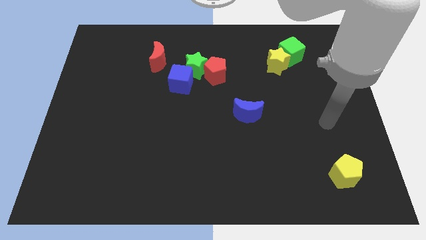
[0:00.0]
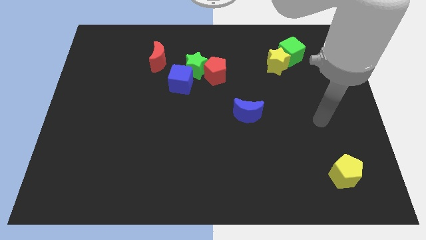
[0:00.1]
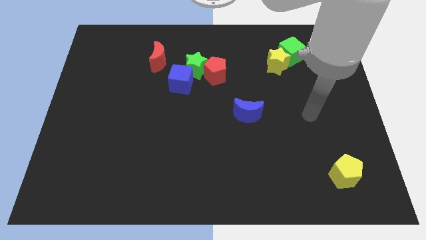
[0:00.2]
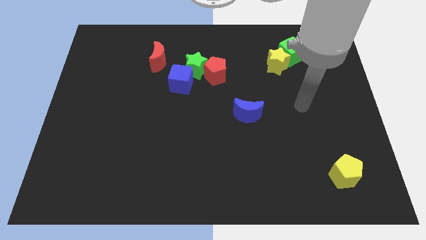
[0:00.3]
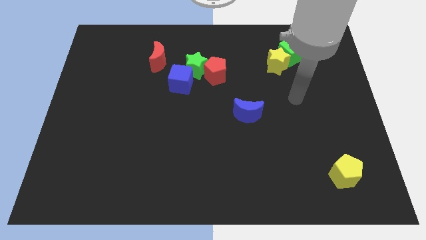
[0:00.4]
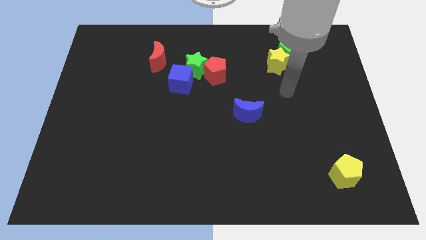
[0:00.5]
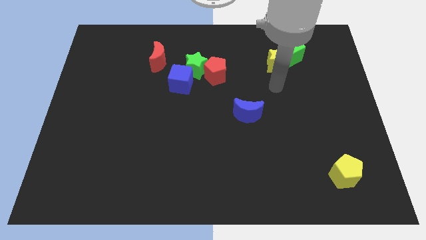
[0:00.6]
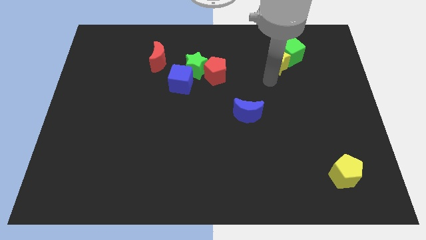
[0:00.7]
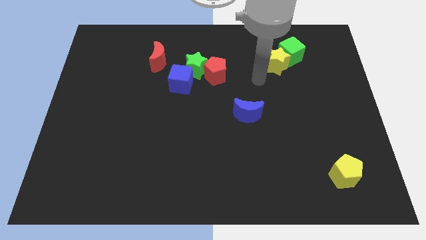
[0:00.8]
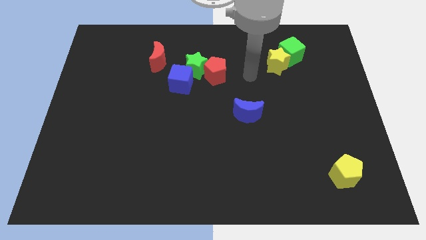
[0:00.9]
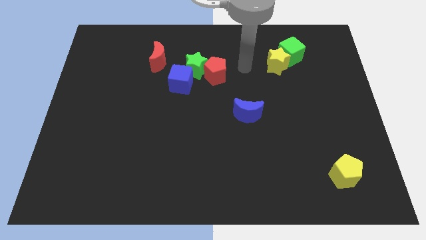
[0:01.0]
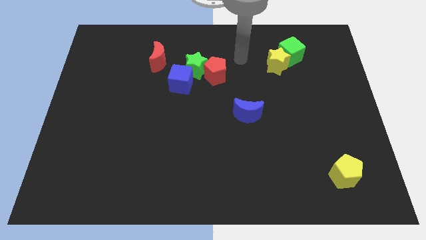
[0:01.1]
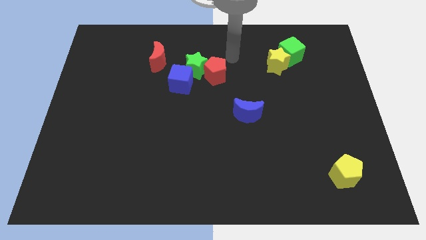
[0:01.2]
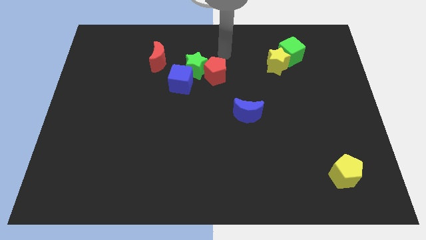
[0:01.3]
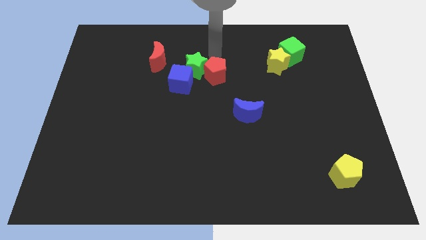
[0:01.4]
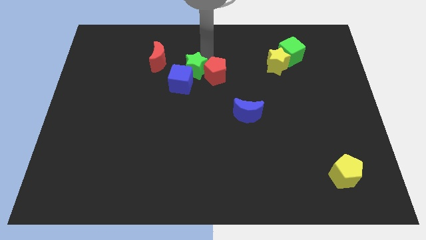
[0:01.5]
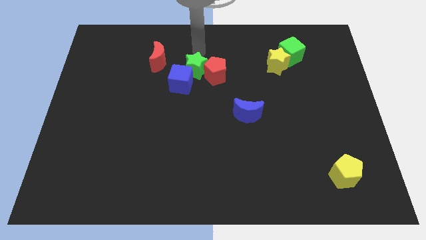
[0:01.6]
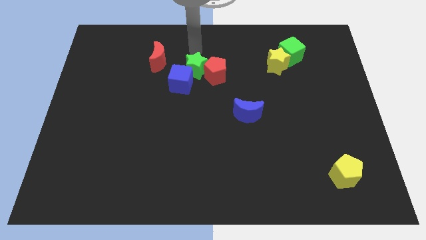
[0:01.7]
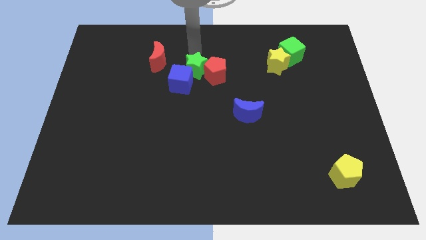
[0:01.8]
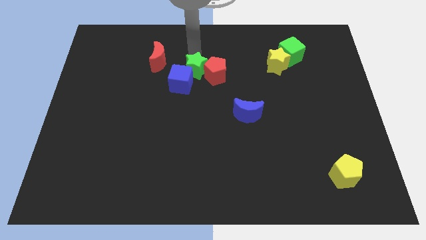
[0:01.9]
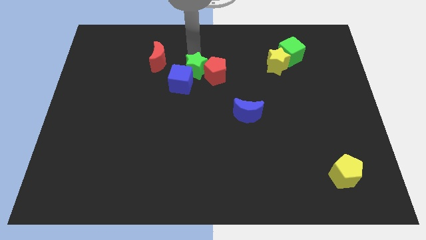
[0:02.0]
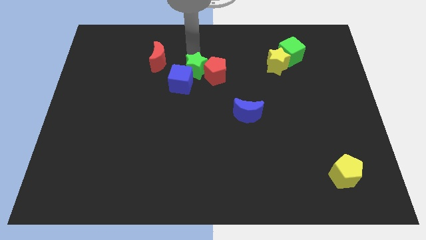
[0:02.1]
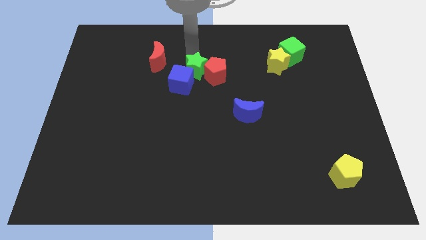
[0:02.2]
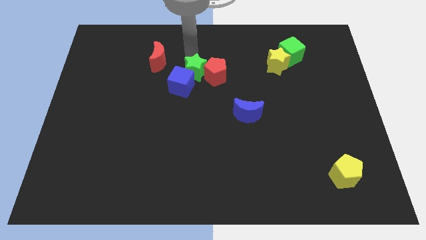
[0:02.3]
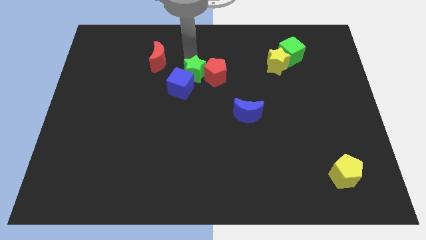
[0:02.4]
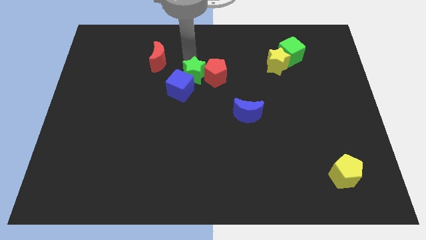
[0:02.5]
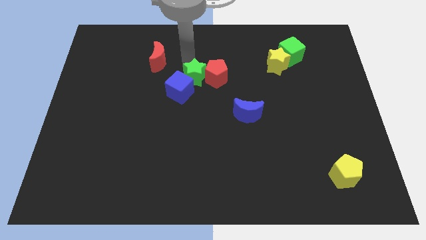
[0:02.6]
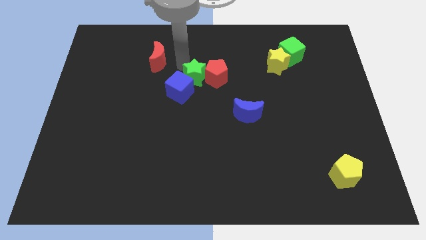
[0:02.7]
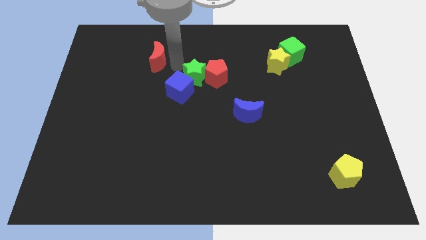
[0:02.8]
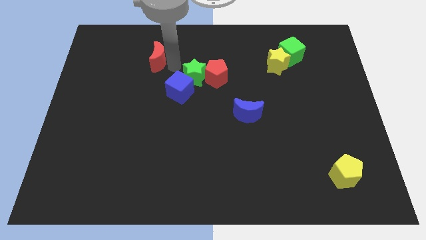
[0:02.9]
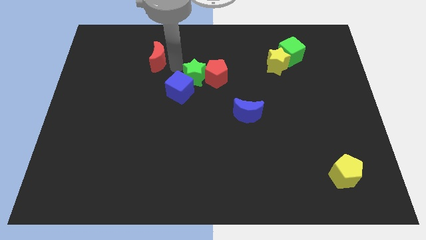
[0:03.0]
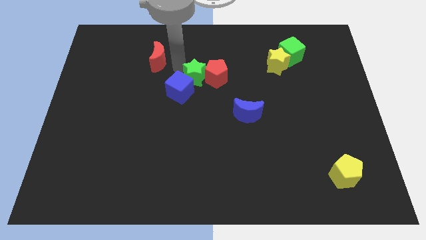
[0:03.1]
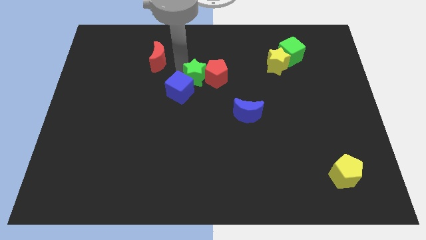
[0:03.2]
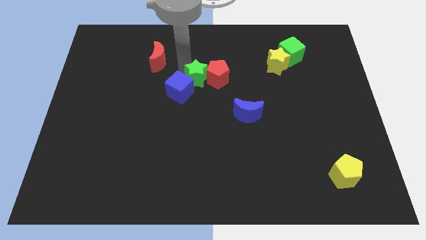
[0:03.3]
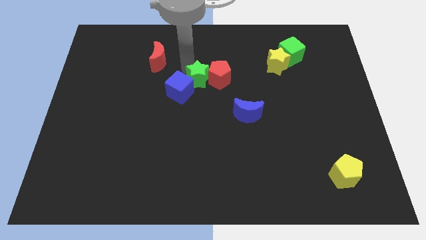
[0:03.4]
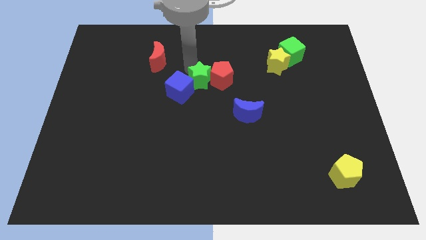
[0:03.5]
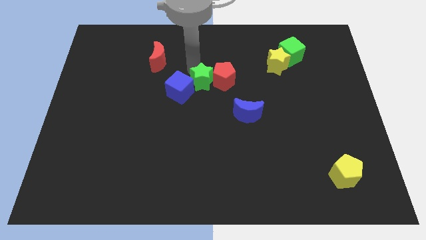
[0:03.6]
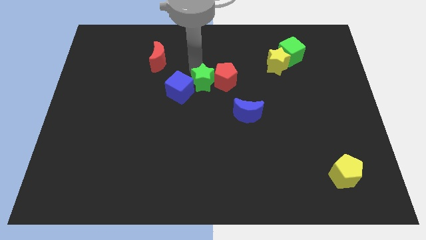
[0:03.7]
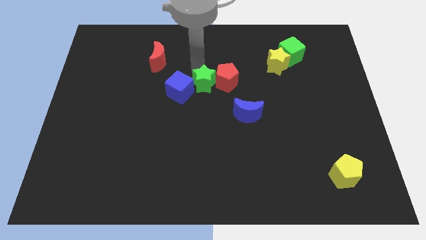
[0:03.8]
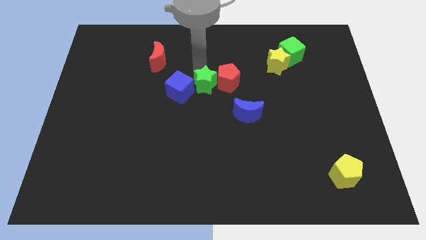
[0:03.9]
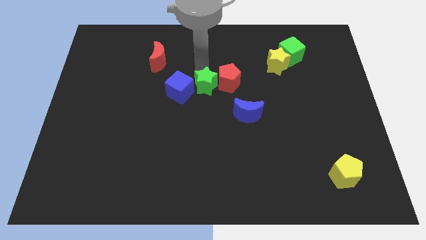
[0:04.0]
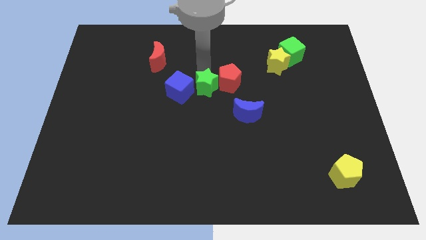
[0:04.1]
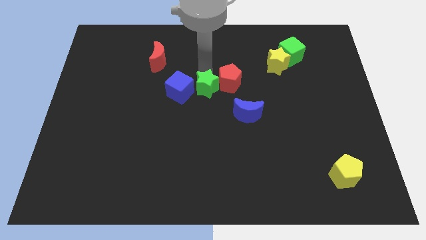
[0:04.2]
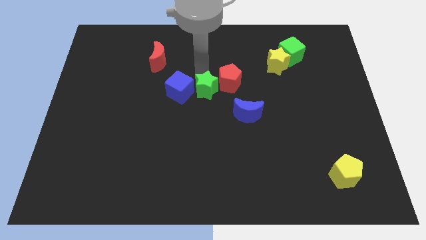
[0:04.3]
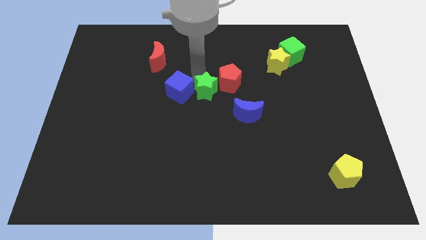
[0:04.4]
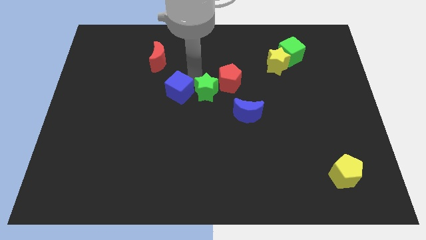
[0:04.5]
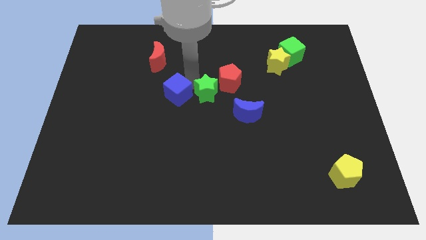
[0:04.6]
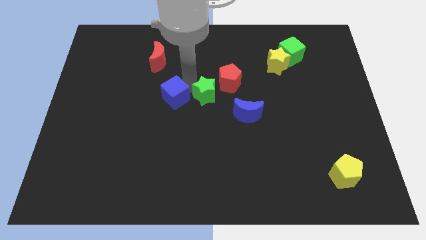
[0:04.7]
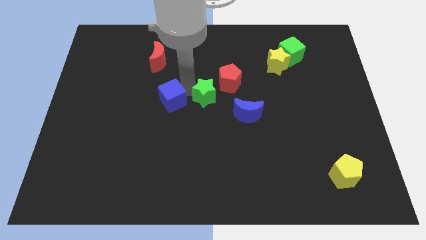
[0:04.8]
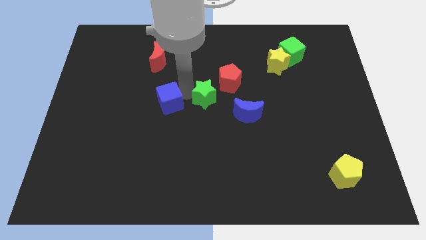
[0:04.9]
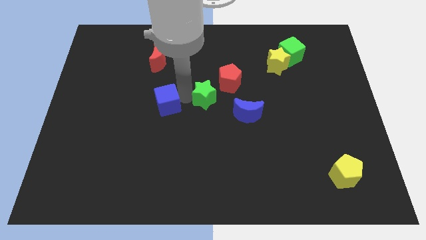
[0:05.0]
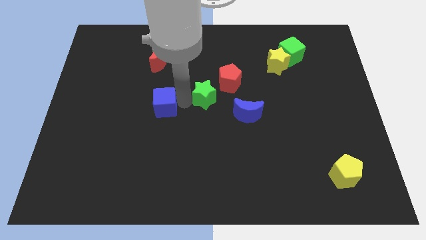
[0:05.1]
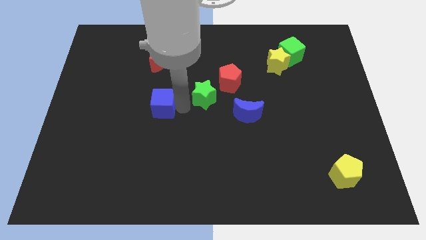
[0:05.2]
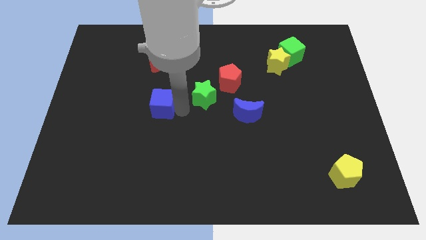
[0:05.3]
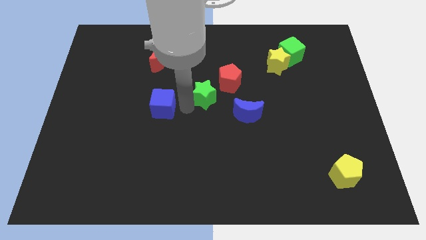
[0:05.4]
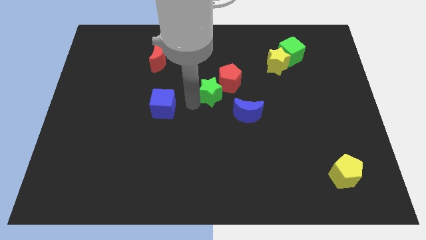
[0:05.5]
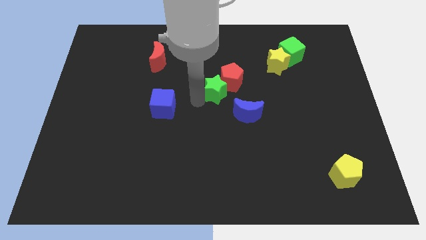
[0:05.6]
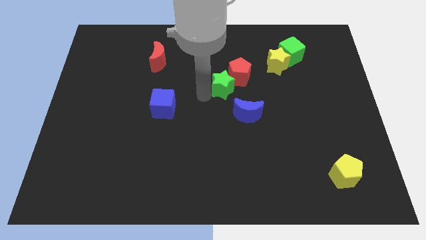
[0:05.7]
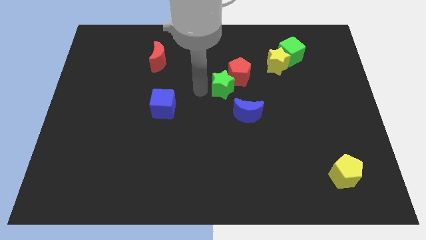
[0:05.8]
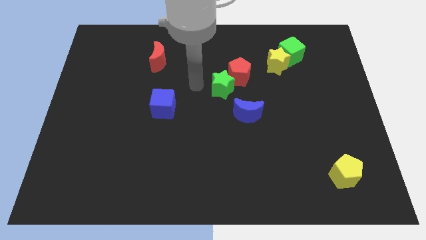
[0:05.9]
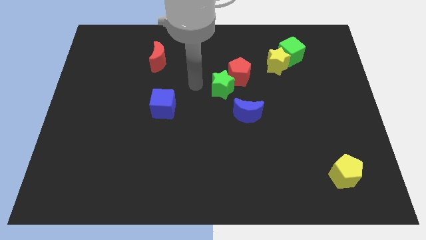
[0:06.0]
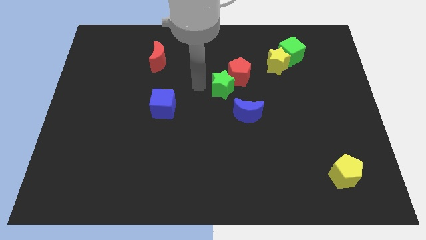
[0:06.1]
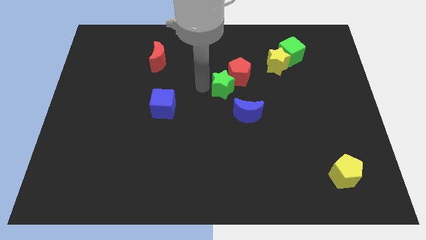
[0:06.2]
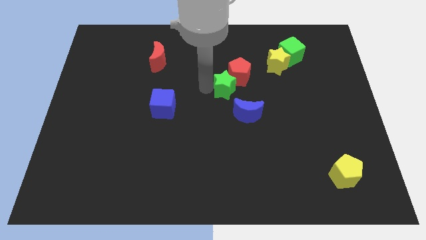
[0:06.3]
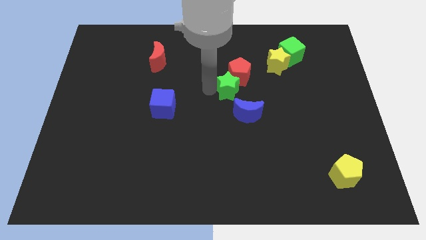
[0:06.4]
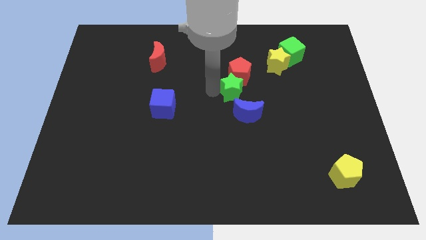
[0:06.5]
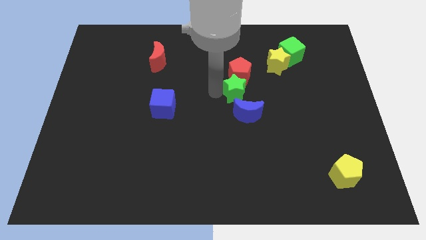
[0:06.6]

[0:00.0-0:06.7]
put the green star to the bottom right side of the red pentagon

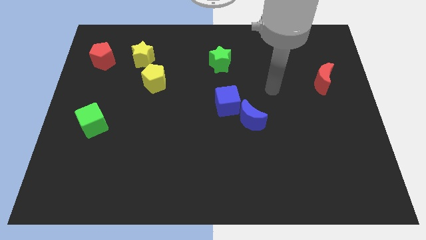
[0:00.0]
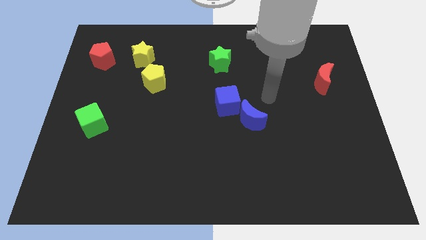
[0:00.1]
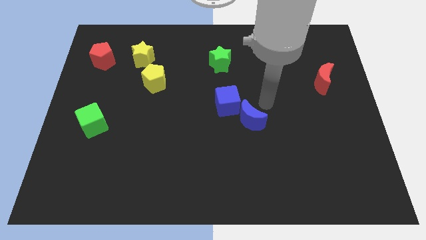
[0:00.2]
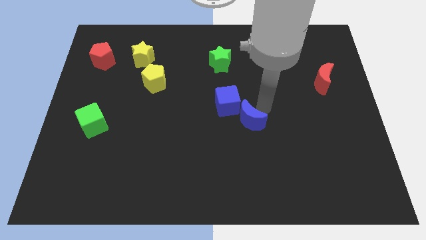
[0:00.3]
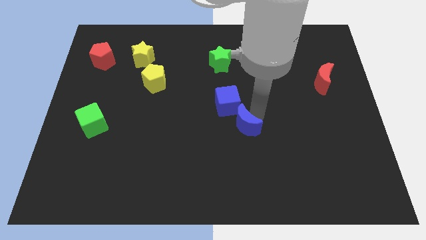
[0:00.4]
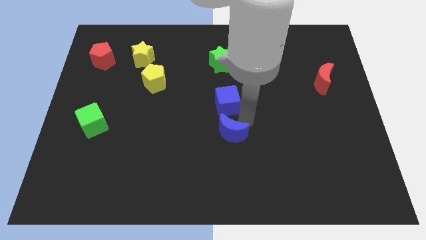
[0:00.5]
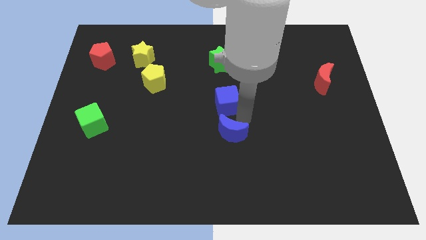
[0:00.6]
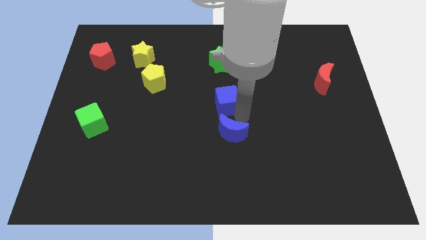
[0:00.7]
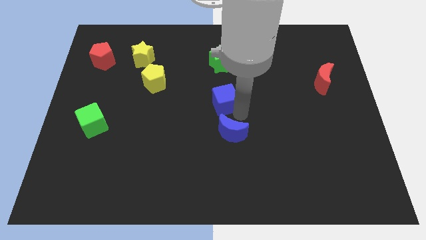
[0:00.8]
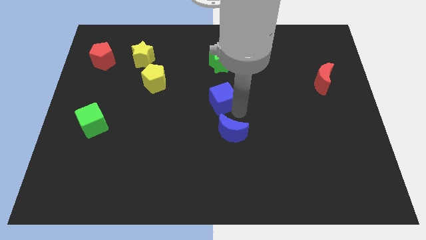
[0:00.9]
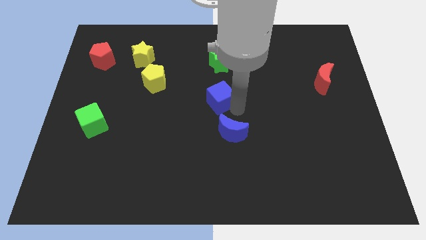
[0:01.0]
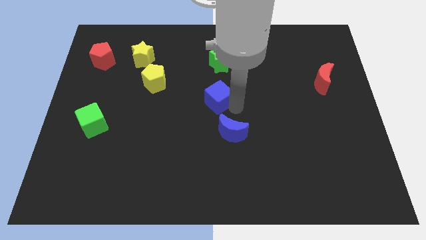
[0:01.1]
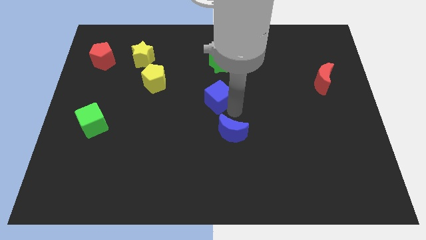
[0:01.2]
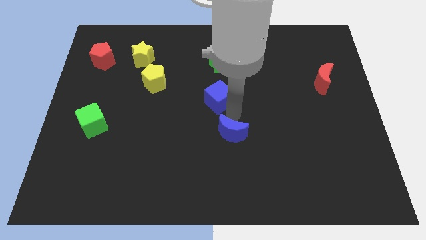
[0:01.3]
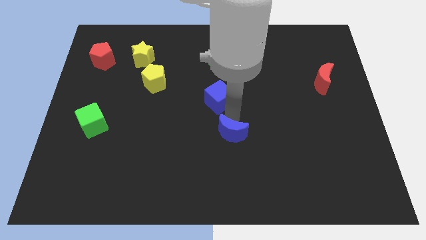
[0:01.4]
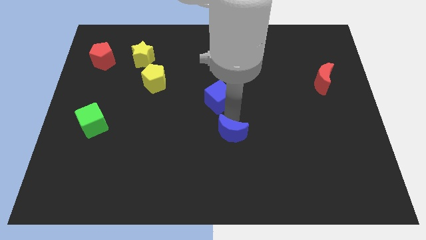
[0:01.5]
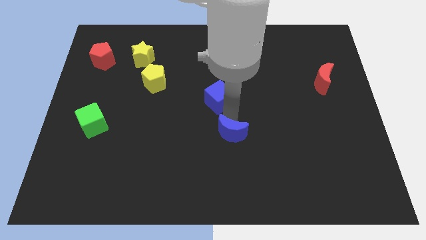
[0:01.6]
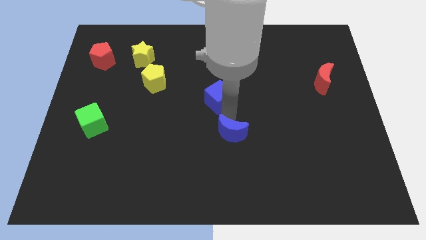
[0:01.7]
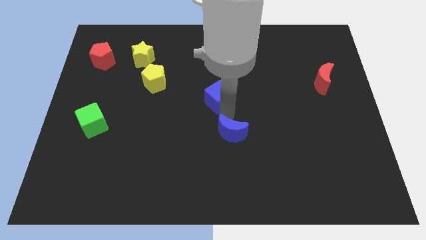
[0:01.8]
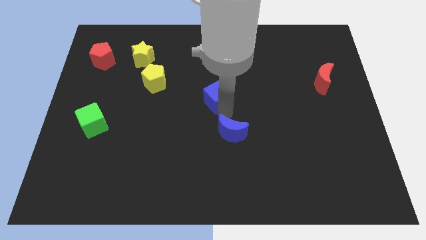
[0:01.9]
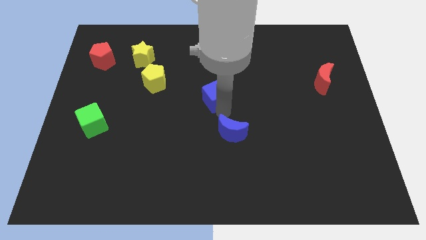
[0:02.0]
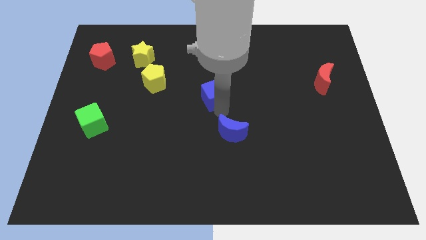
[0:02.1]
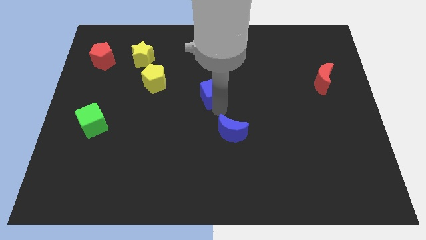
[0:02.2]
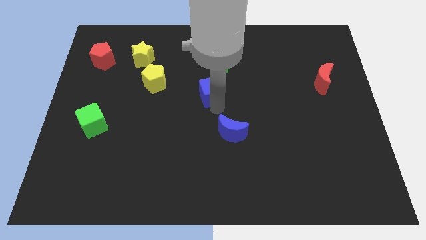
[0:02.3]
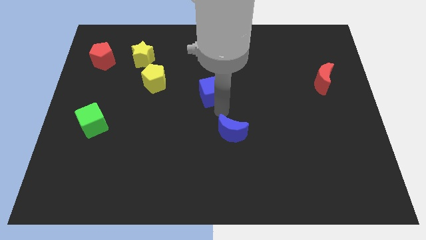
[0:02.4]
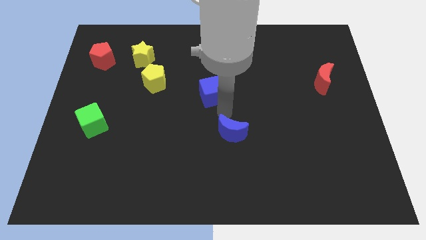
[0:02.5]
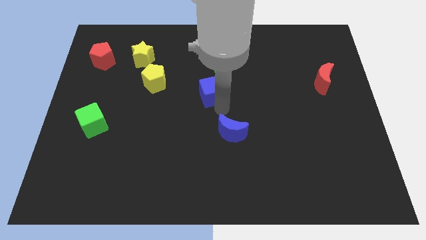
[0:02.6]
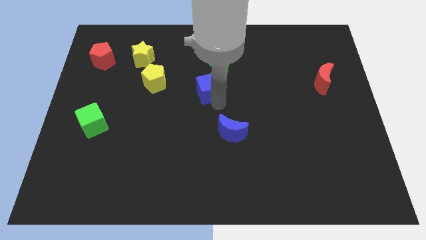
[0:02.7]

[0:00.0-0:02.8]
push the blue cube to the bottom left side of the green star
